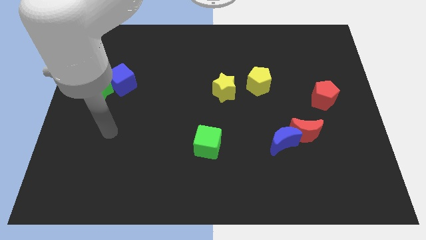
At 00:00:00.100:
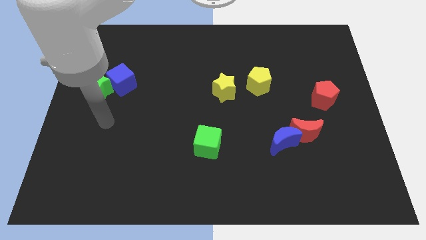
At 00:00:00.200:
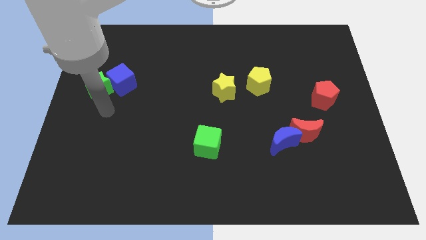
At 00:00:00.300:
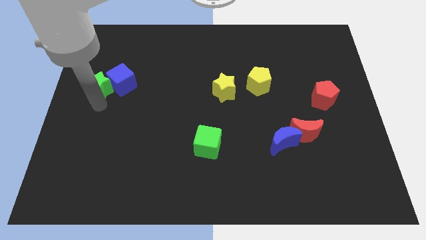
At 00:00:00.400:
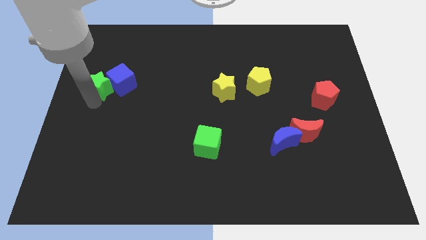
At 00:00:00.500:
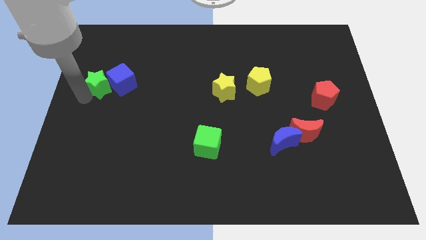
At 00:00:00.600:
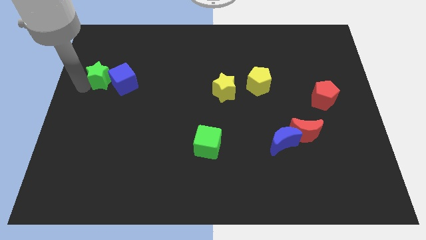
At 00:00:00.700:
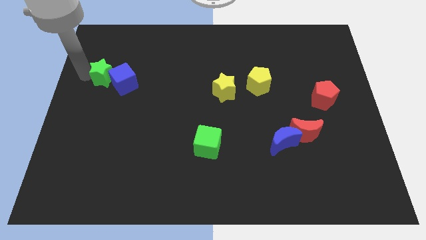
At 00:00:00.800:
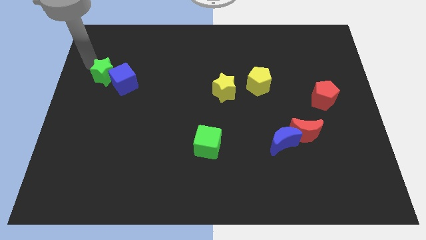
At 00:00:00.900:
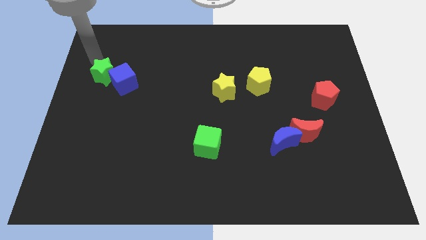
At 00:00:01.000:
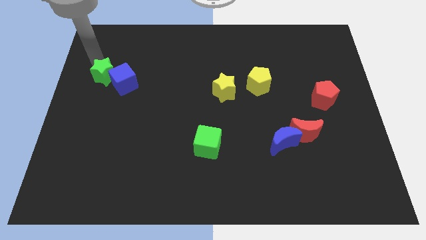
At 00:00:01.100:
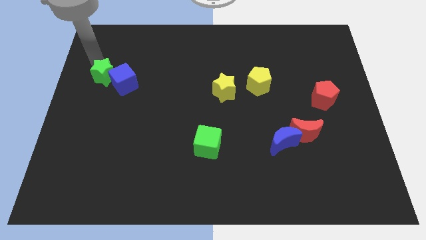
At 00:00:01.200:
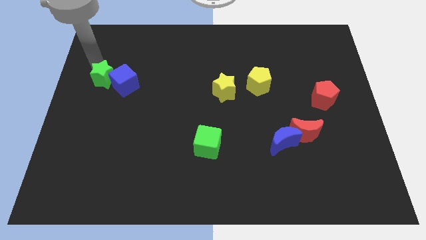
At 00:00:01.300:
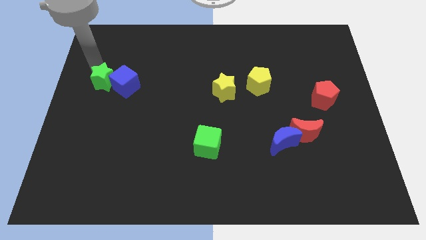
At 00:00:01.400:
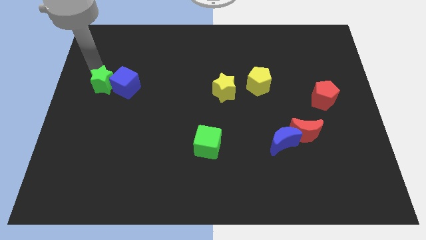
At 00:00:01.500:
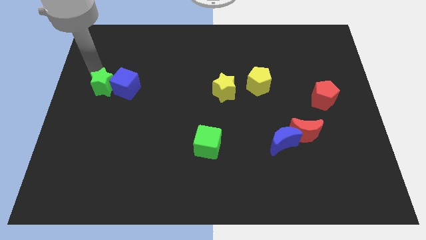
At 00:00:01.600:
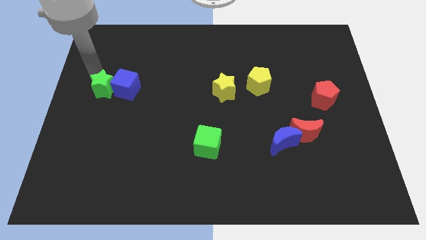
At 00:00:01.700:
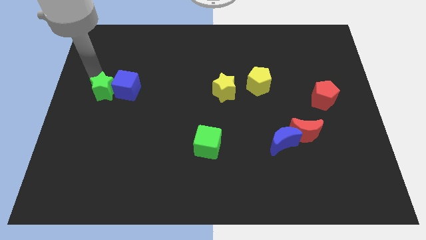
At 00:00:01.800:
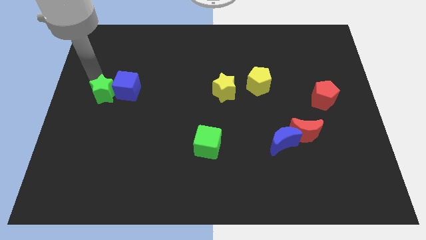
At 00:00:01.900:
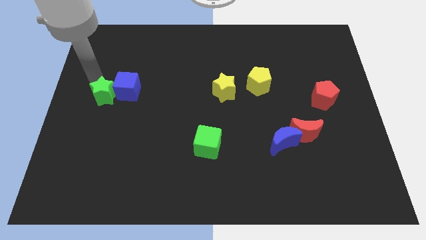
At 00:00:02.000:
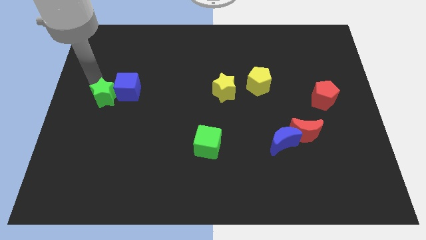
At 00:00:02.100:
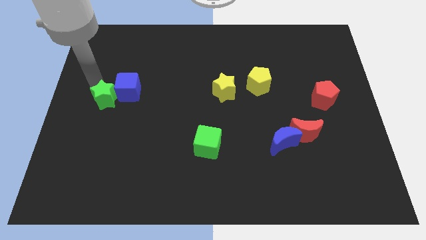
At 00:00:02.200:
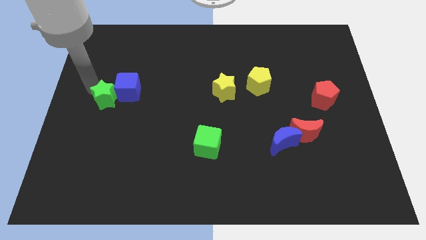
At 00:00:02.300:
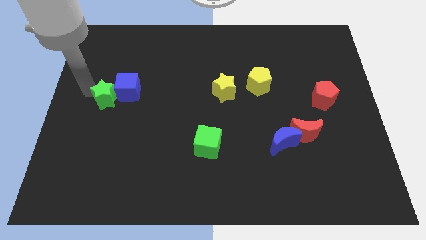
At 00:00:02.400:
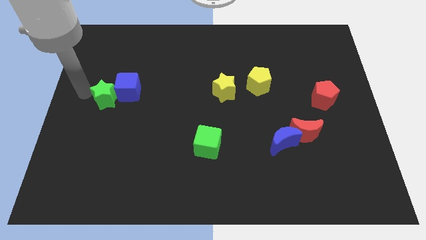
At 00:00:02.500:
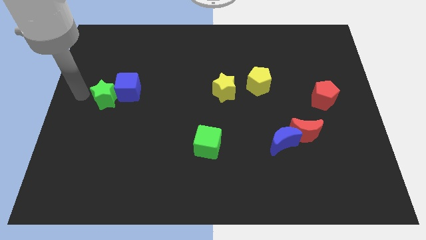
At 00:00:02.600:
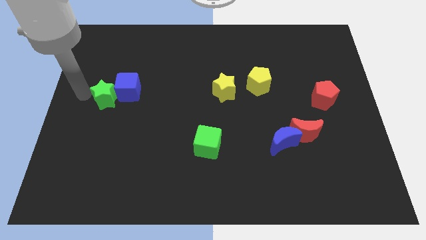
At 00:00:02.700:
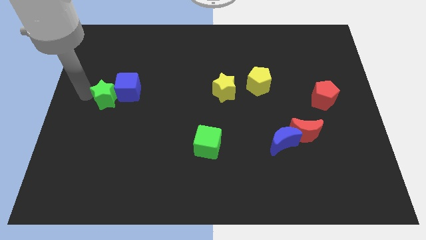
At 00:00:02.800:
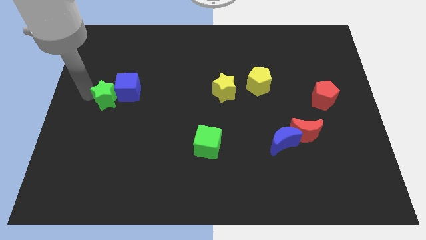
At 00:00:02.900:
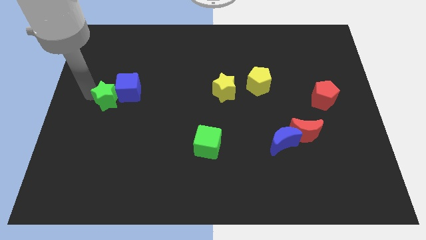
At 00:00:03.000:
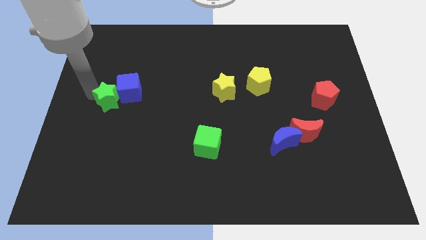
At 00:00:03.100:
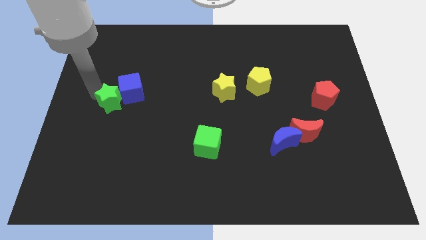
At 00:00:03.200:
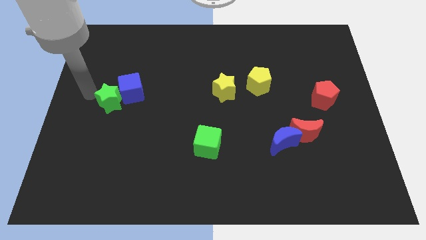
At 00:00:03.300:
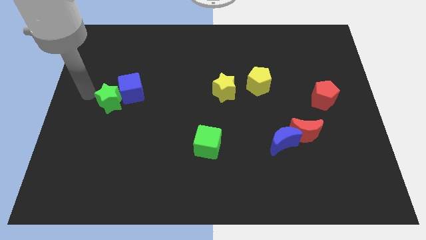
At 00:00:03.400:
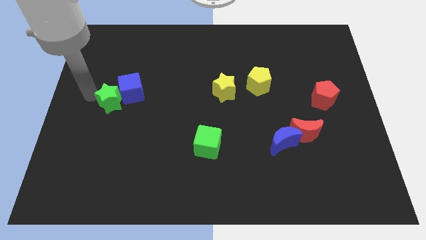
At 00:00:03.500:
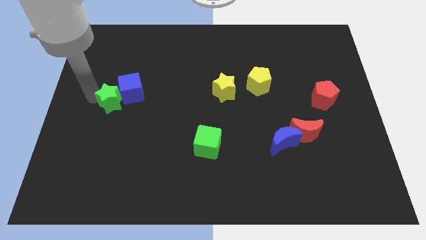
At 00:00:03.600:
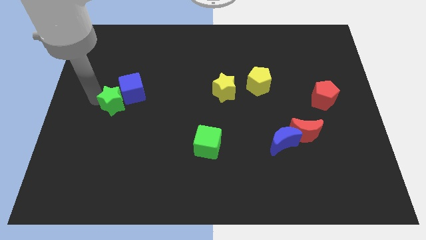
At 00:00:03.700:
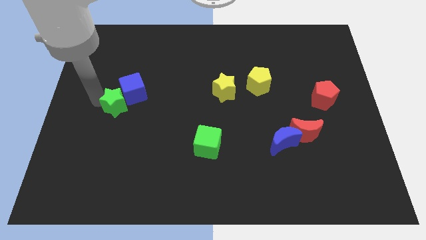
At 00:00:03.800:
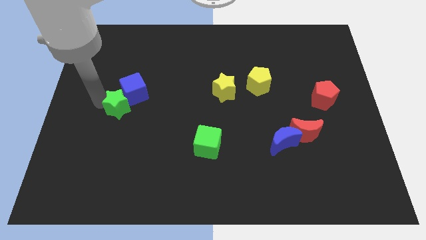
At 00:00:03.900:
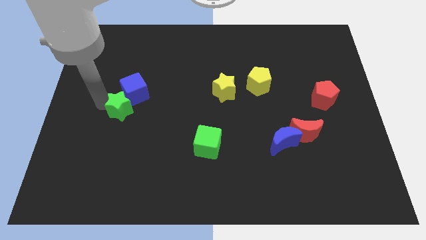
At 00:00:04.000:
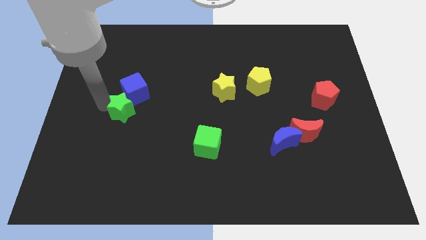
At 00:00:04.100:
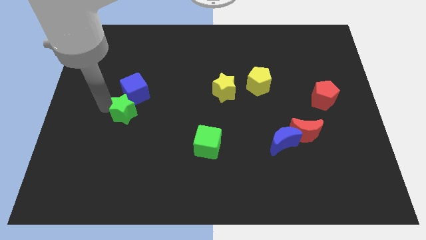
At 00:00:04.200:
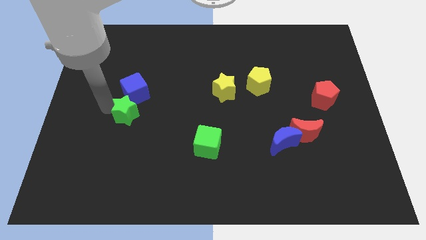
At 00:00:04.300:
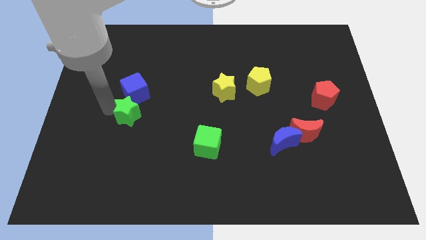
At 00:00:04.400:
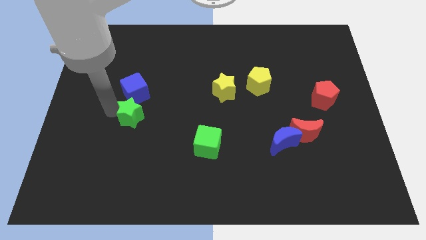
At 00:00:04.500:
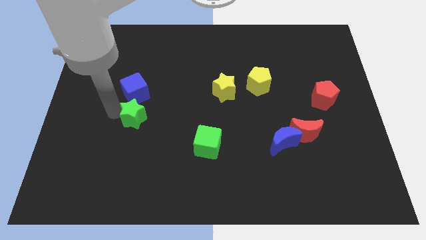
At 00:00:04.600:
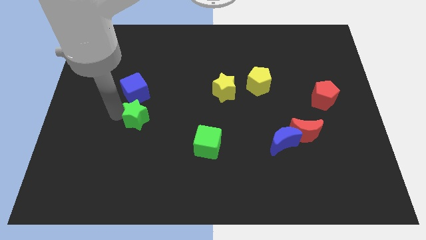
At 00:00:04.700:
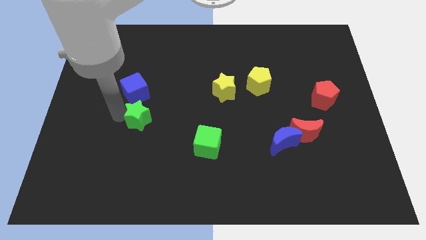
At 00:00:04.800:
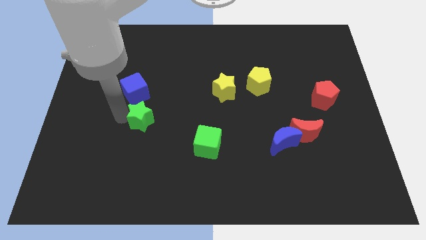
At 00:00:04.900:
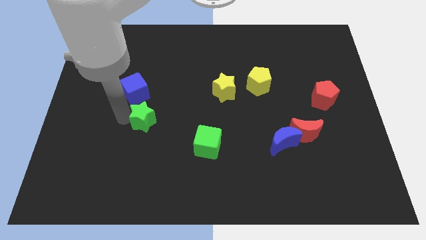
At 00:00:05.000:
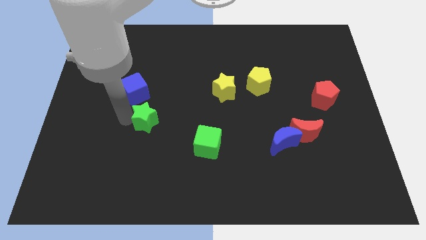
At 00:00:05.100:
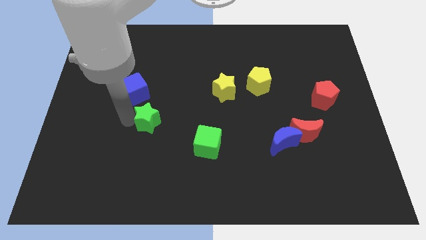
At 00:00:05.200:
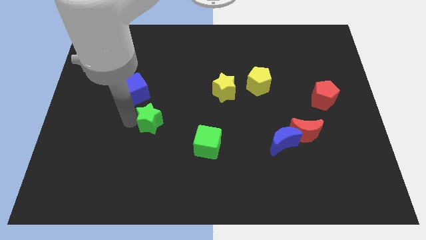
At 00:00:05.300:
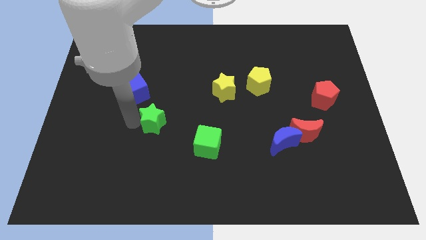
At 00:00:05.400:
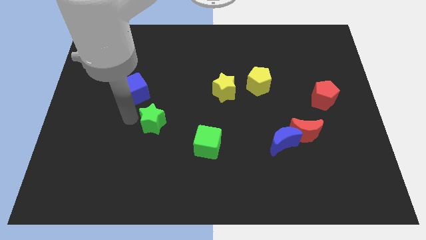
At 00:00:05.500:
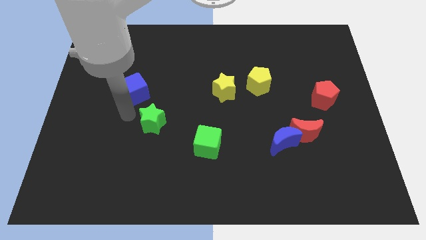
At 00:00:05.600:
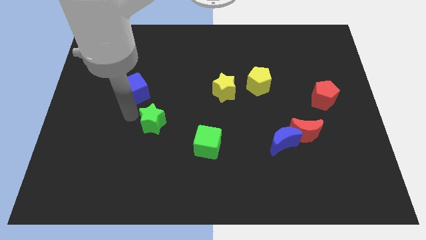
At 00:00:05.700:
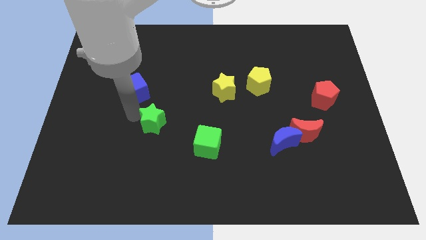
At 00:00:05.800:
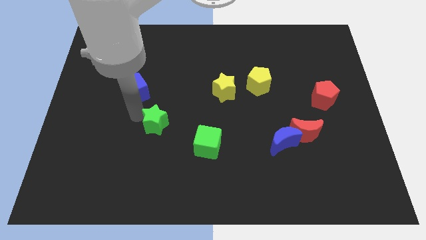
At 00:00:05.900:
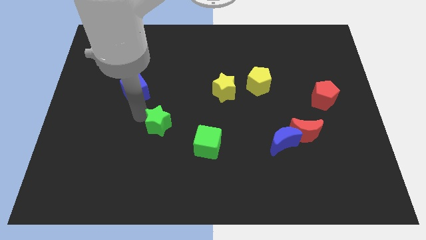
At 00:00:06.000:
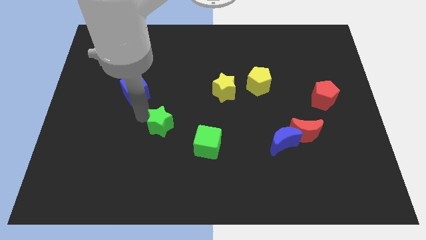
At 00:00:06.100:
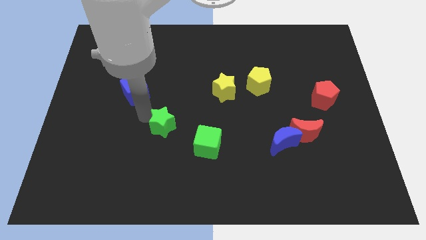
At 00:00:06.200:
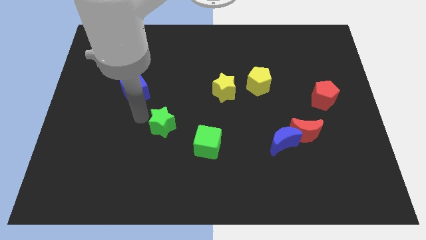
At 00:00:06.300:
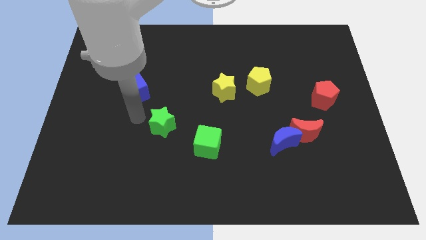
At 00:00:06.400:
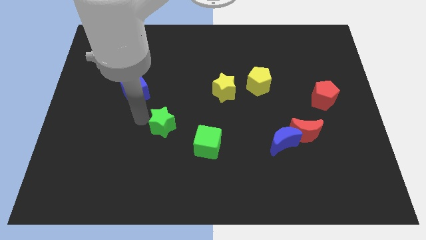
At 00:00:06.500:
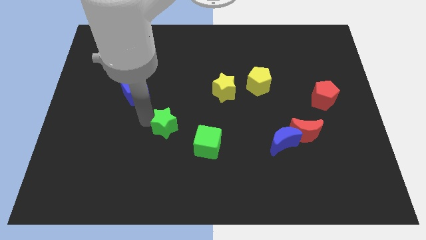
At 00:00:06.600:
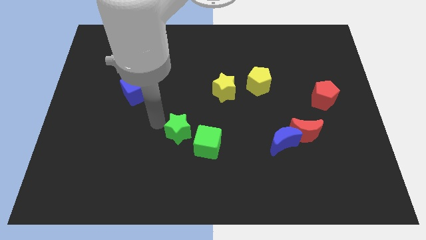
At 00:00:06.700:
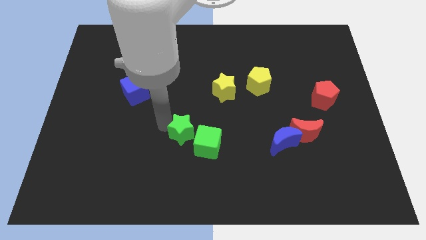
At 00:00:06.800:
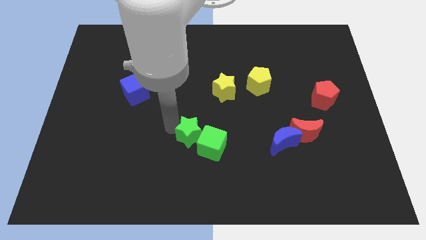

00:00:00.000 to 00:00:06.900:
slide the green star close to the green cube
